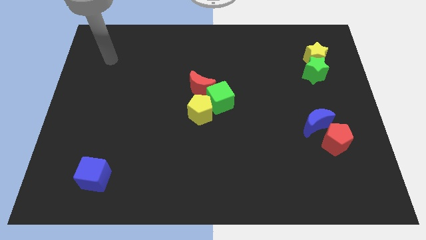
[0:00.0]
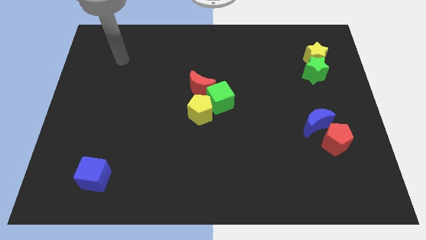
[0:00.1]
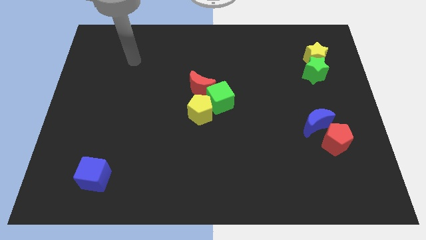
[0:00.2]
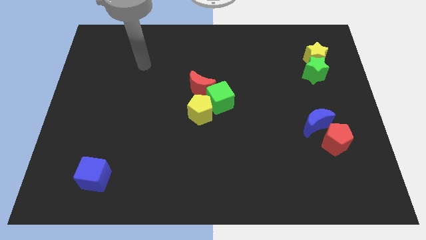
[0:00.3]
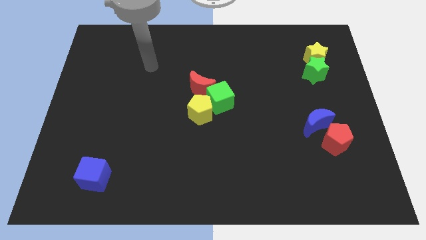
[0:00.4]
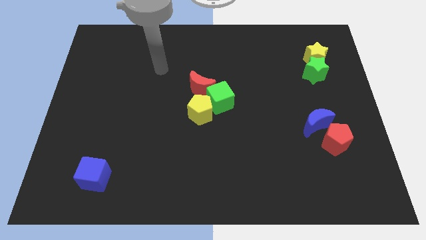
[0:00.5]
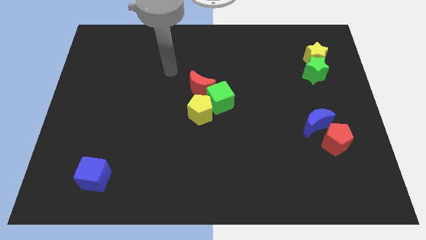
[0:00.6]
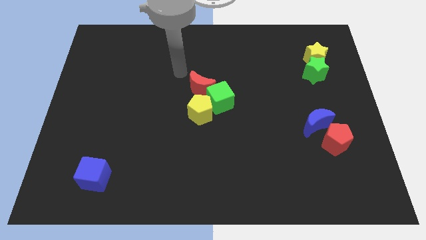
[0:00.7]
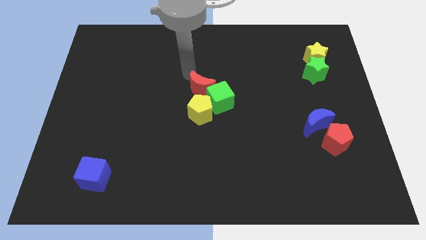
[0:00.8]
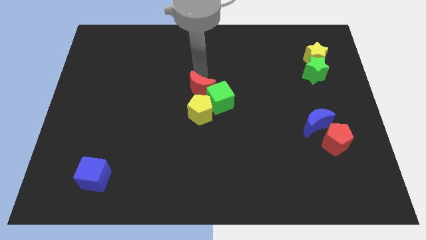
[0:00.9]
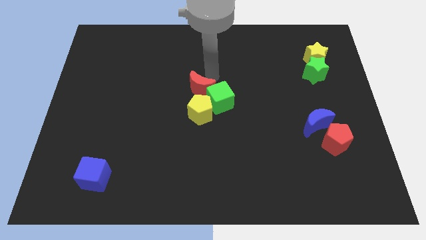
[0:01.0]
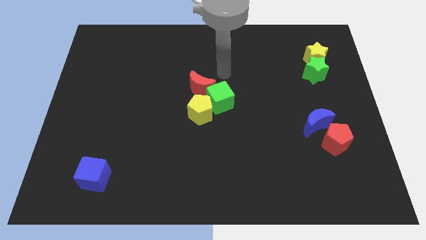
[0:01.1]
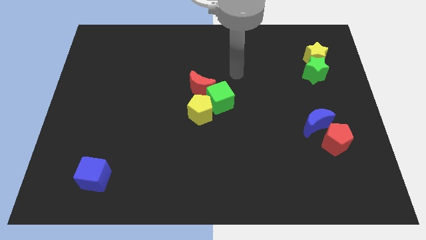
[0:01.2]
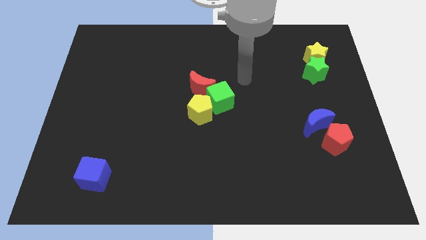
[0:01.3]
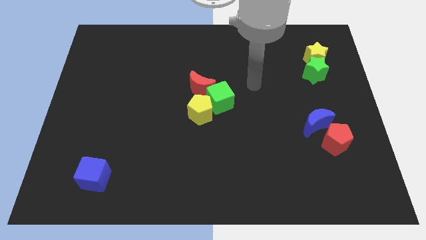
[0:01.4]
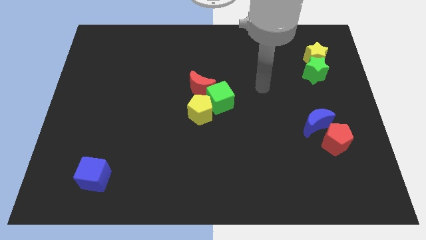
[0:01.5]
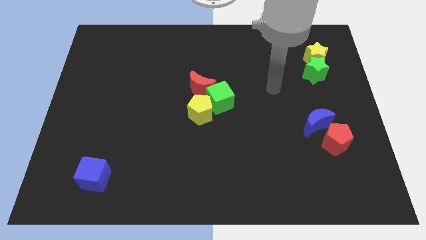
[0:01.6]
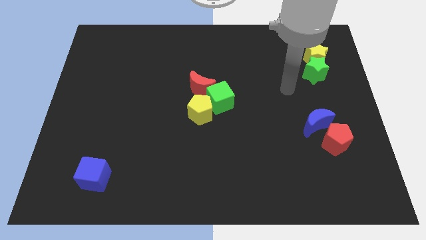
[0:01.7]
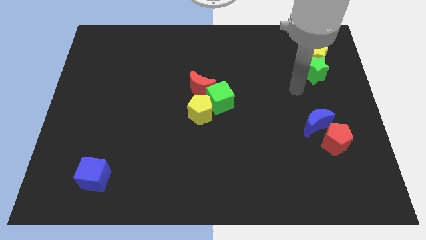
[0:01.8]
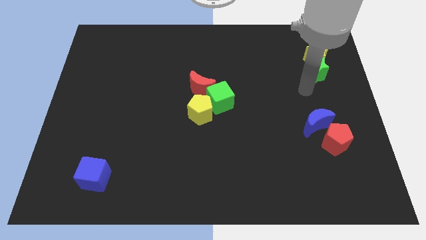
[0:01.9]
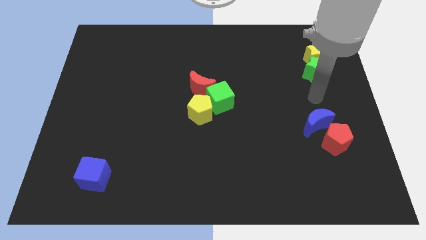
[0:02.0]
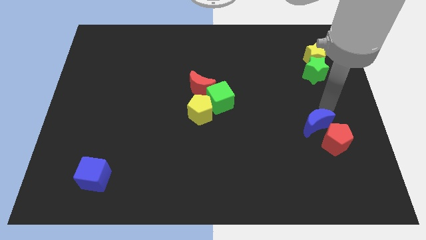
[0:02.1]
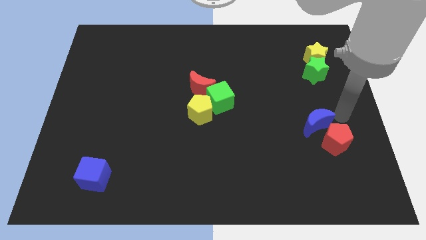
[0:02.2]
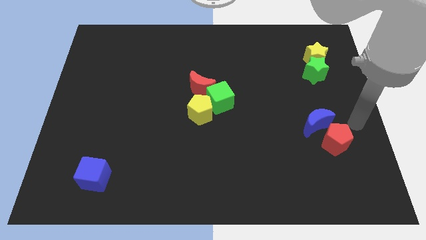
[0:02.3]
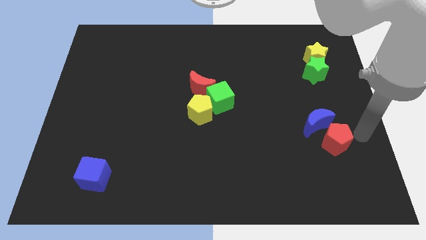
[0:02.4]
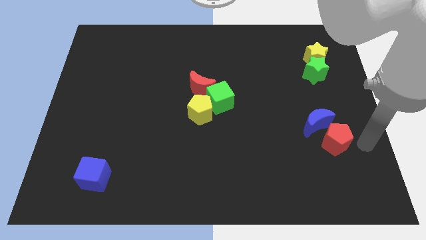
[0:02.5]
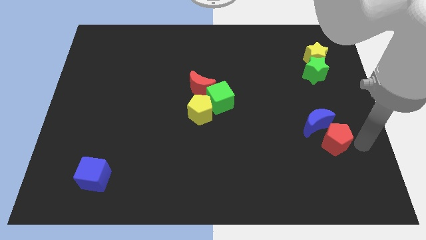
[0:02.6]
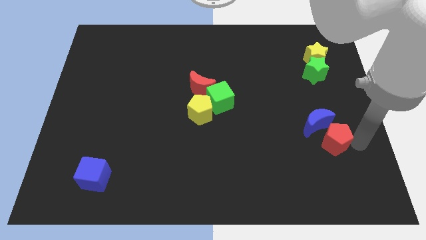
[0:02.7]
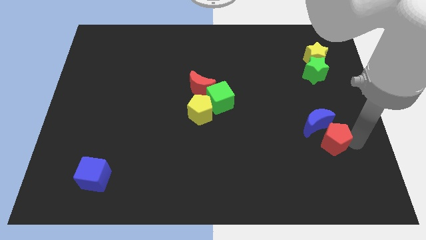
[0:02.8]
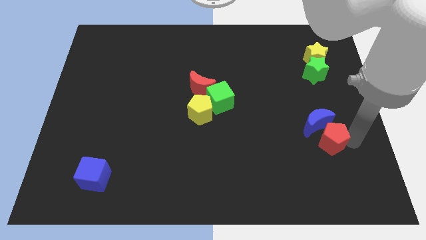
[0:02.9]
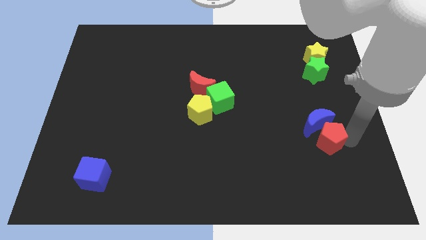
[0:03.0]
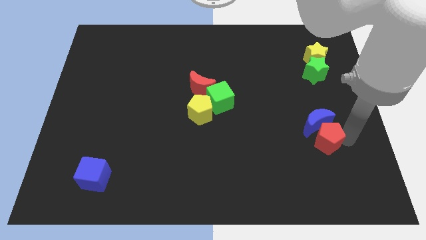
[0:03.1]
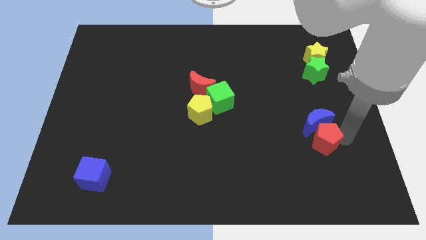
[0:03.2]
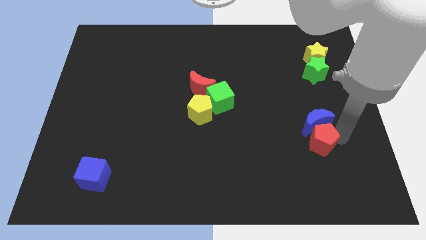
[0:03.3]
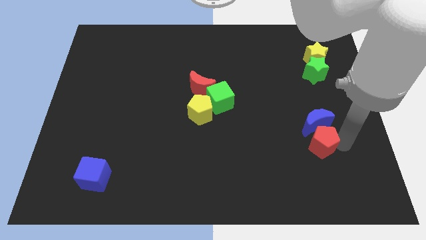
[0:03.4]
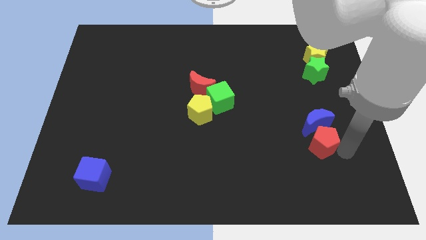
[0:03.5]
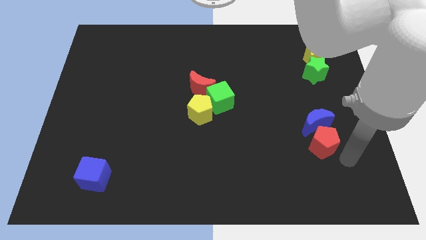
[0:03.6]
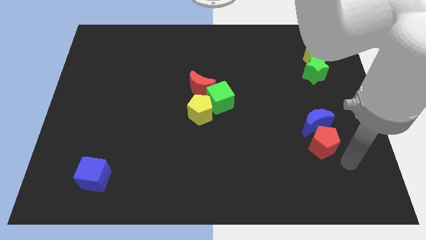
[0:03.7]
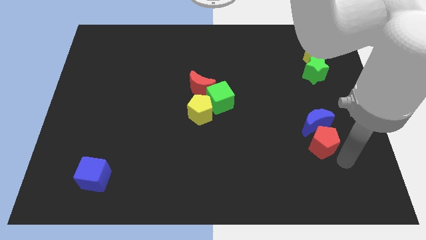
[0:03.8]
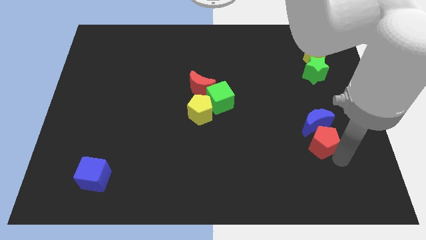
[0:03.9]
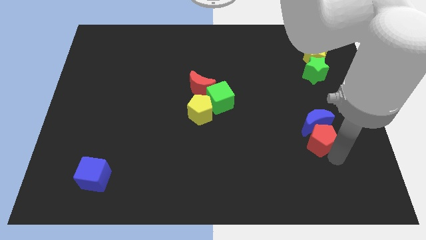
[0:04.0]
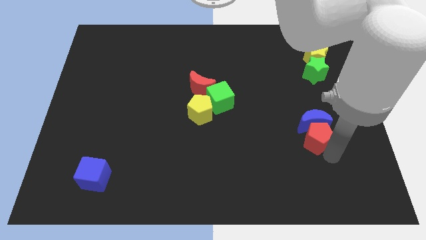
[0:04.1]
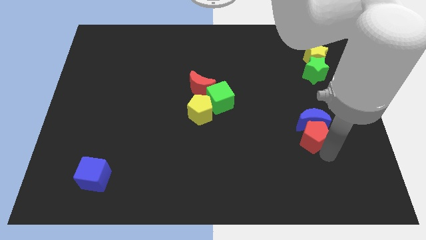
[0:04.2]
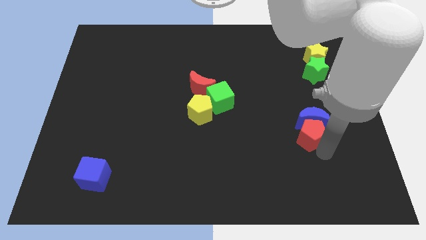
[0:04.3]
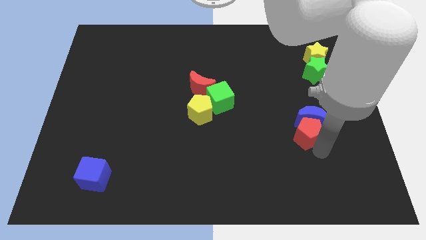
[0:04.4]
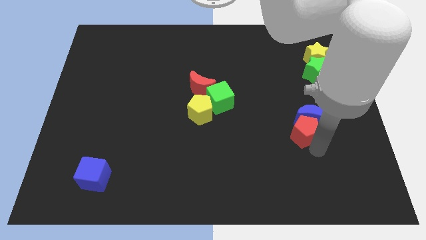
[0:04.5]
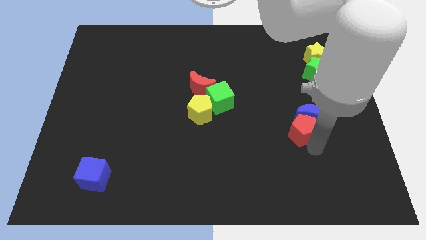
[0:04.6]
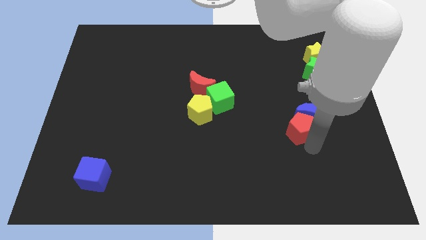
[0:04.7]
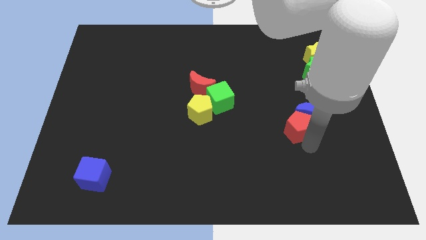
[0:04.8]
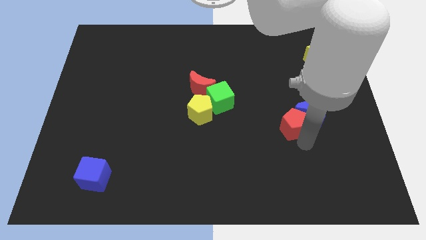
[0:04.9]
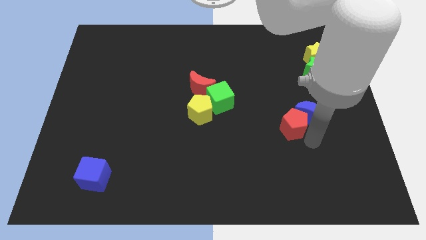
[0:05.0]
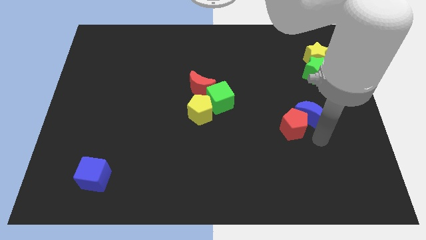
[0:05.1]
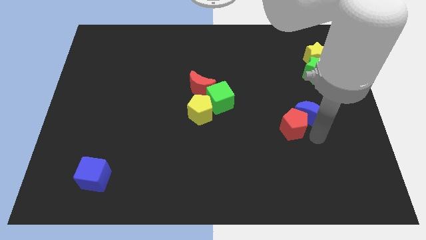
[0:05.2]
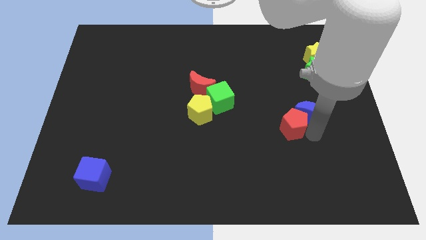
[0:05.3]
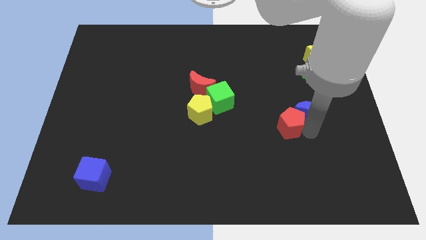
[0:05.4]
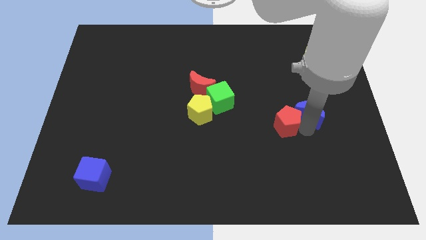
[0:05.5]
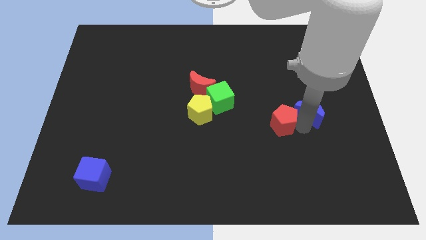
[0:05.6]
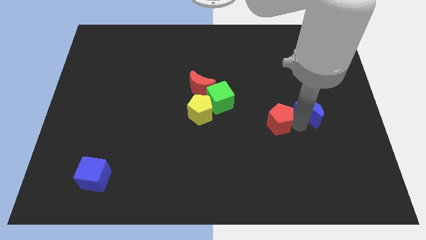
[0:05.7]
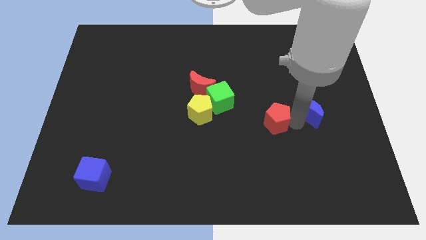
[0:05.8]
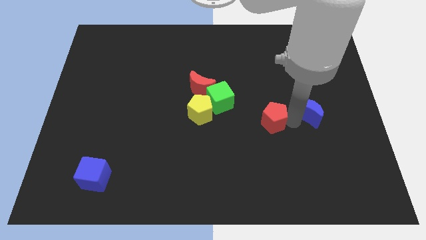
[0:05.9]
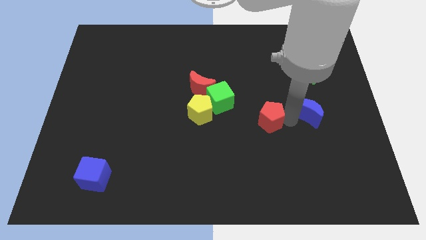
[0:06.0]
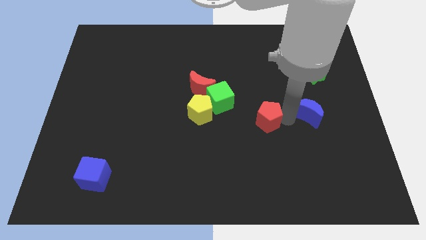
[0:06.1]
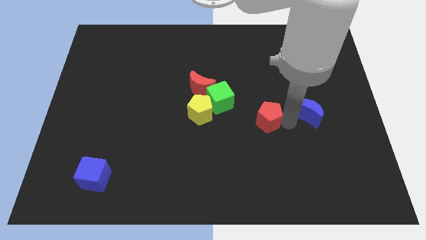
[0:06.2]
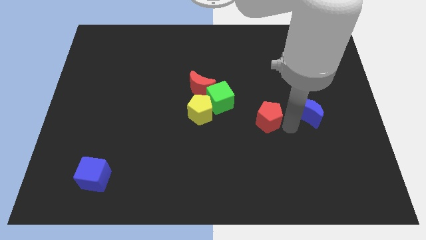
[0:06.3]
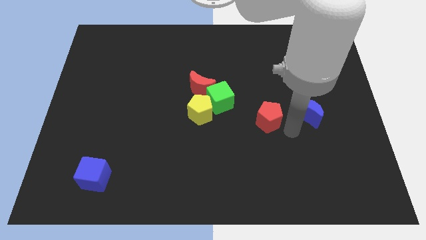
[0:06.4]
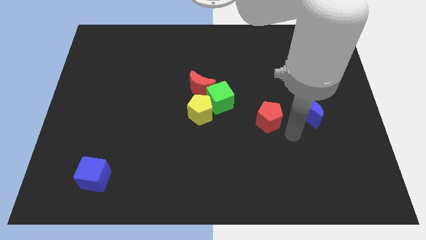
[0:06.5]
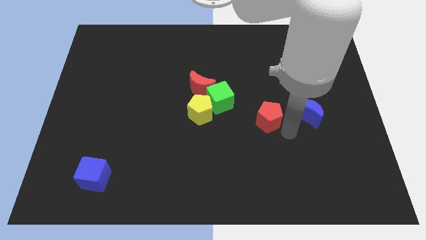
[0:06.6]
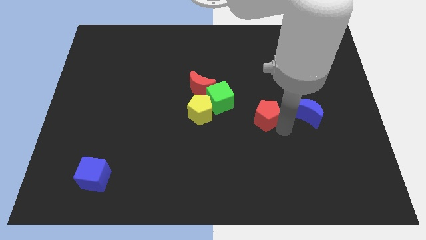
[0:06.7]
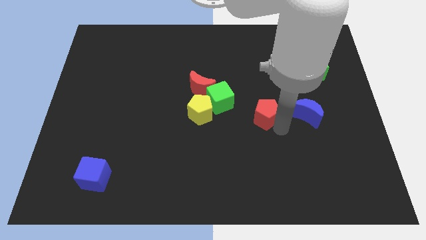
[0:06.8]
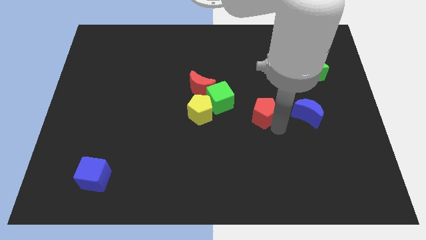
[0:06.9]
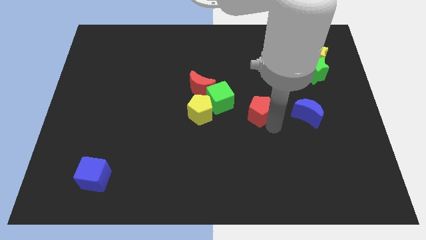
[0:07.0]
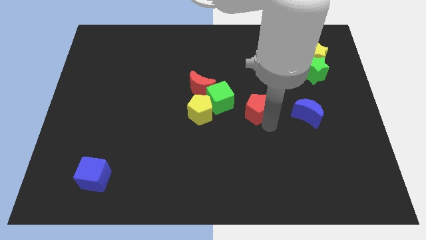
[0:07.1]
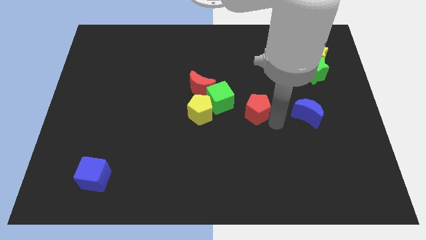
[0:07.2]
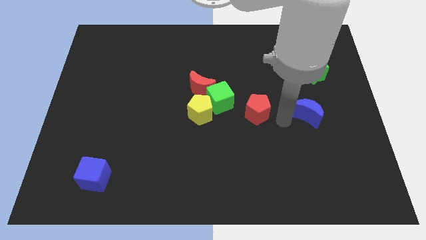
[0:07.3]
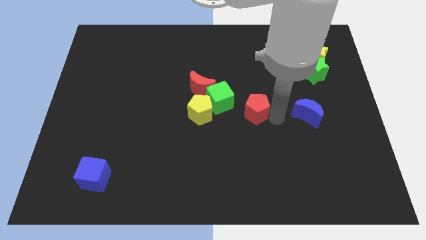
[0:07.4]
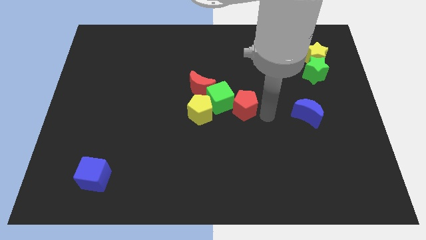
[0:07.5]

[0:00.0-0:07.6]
push the red pentagon next to the green cube
